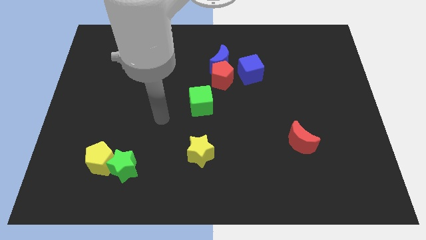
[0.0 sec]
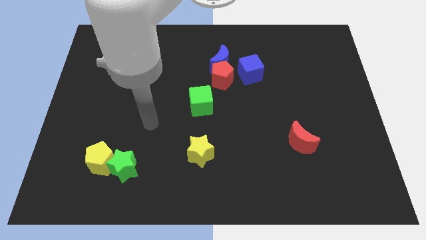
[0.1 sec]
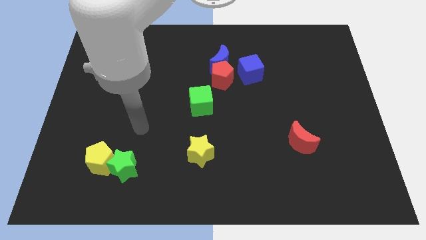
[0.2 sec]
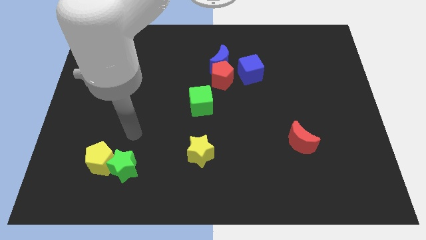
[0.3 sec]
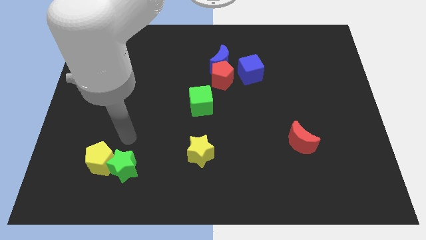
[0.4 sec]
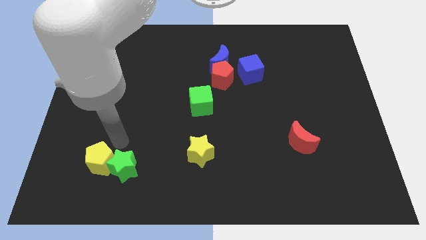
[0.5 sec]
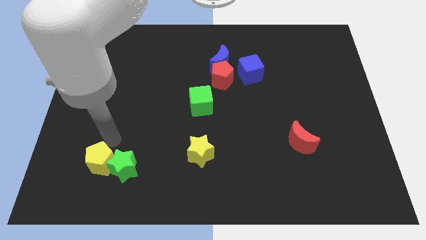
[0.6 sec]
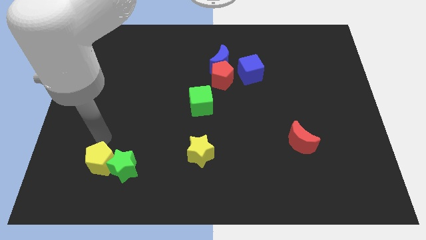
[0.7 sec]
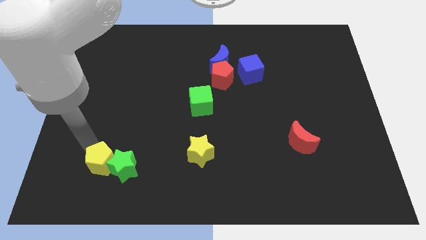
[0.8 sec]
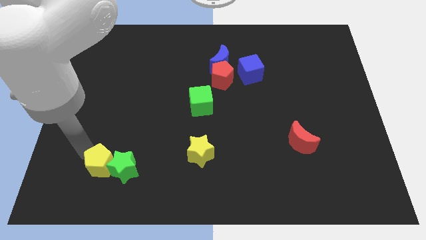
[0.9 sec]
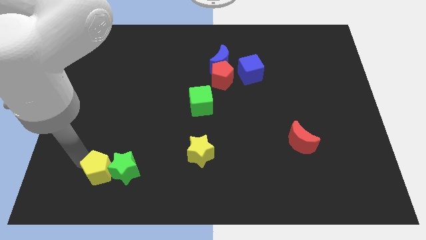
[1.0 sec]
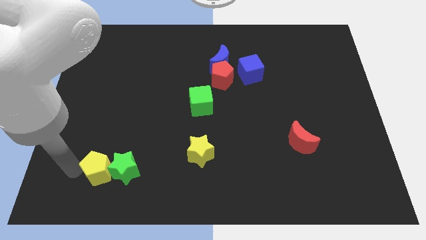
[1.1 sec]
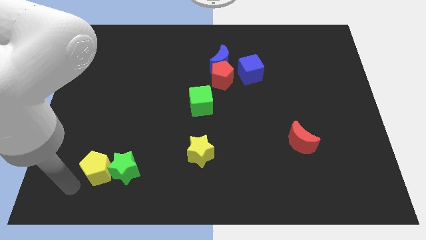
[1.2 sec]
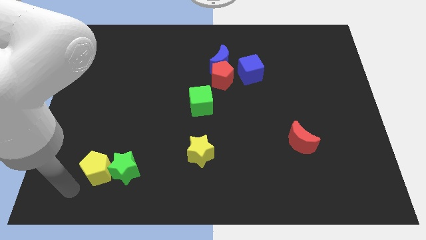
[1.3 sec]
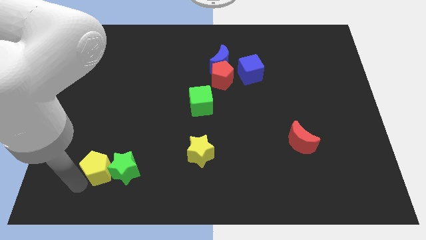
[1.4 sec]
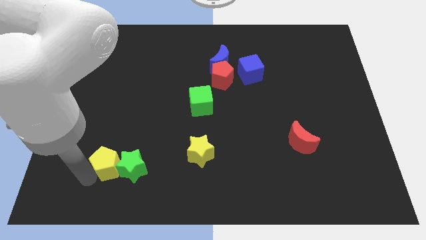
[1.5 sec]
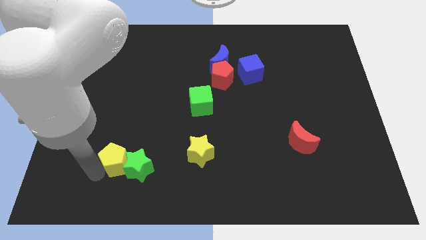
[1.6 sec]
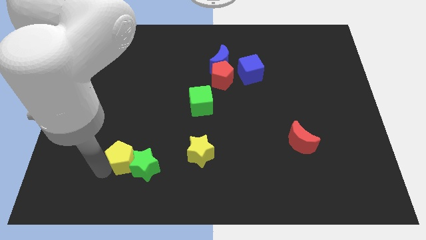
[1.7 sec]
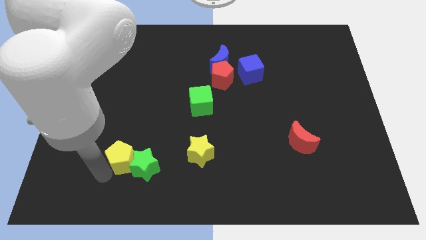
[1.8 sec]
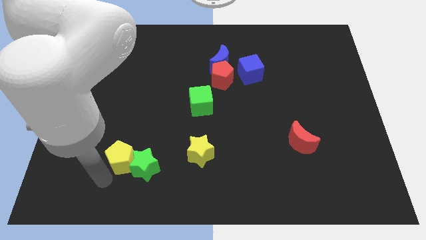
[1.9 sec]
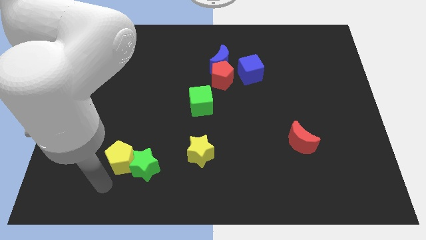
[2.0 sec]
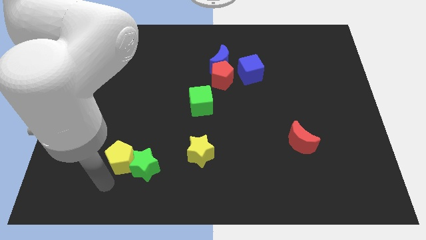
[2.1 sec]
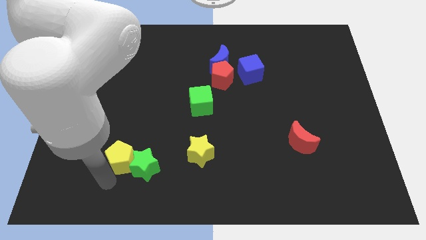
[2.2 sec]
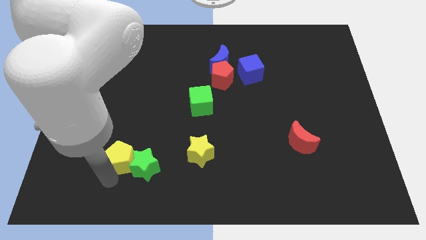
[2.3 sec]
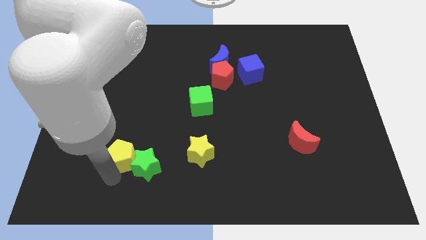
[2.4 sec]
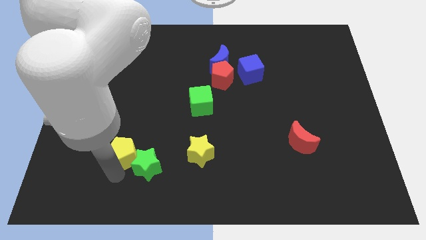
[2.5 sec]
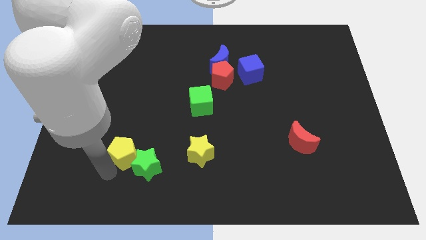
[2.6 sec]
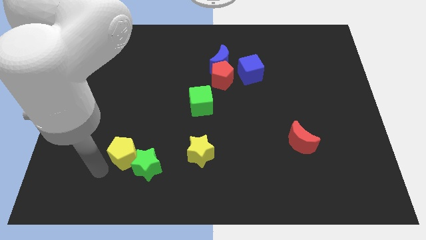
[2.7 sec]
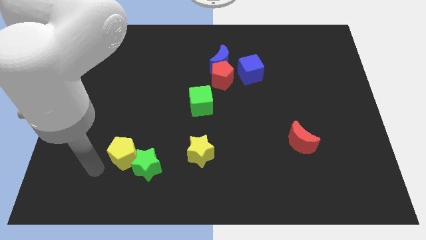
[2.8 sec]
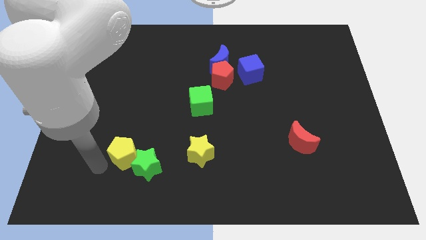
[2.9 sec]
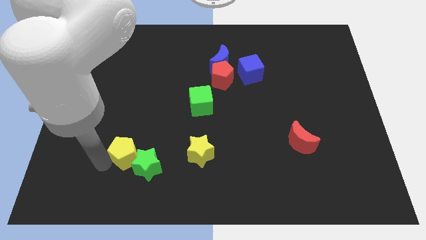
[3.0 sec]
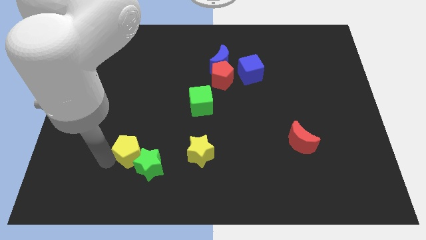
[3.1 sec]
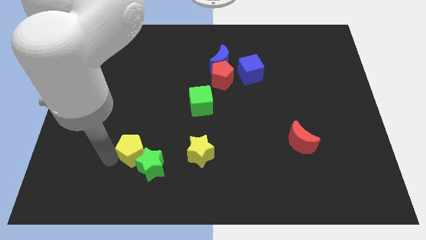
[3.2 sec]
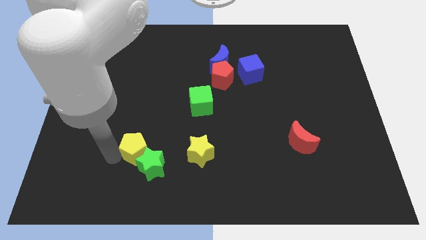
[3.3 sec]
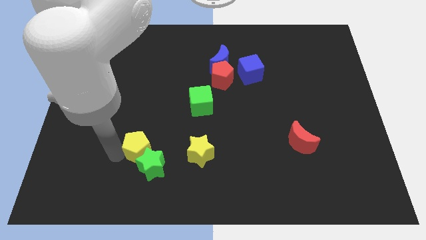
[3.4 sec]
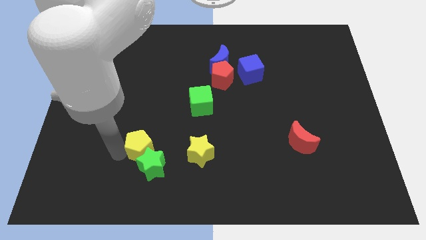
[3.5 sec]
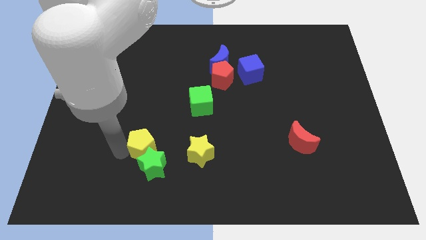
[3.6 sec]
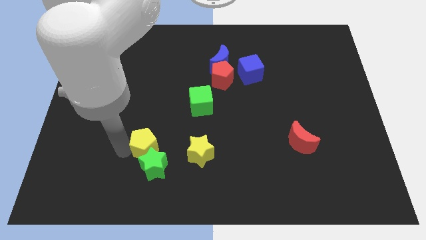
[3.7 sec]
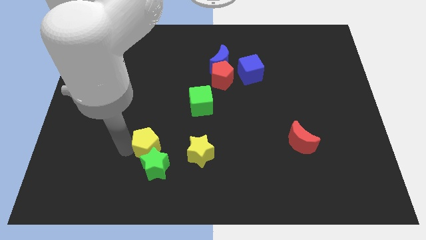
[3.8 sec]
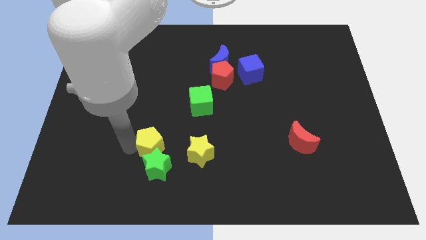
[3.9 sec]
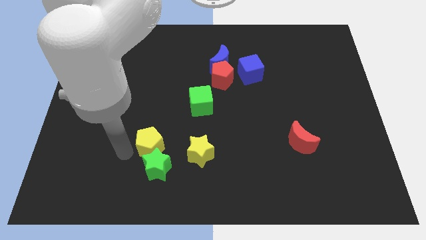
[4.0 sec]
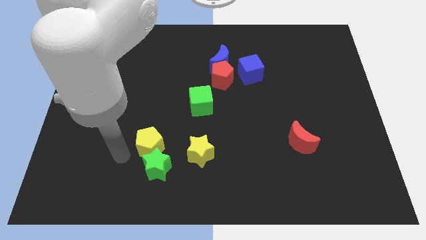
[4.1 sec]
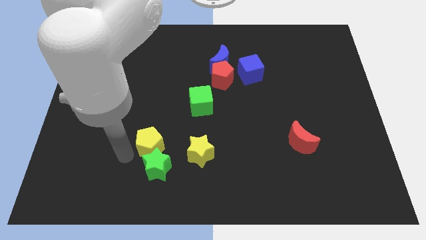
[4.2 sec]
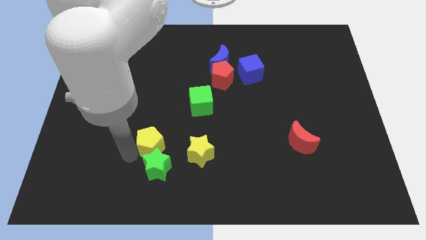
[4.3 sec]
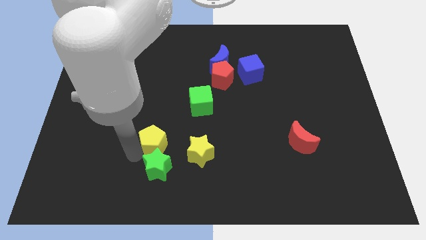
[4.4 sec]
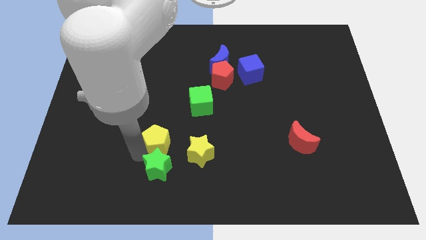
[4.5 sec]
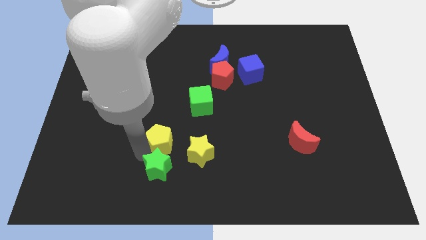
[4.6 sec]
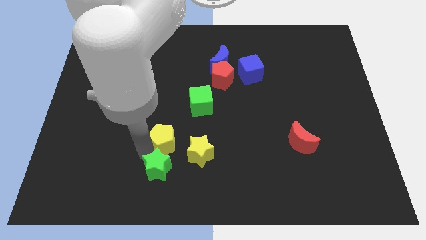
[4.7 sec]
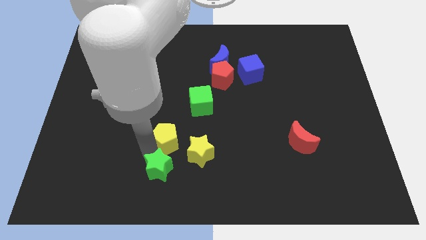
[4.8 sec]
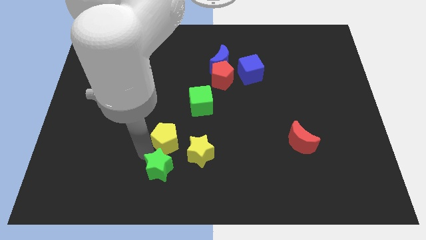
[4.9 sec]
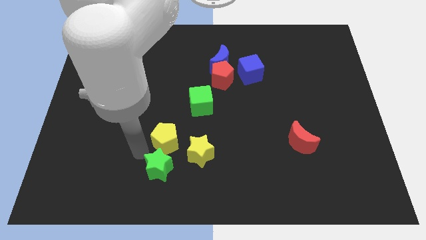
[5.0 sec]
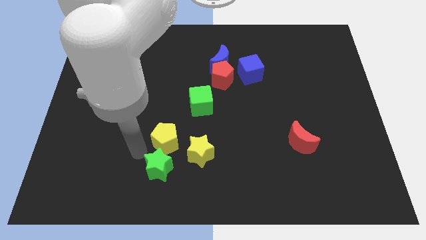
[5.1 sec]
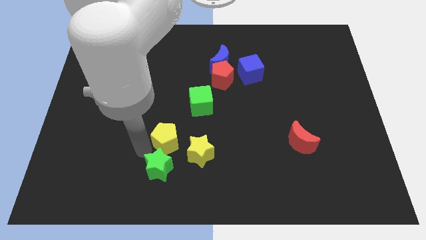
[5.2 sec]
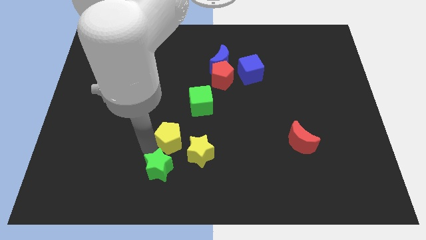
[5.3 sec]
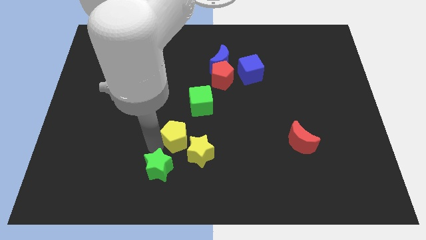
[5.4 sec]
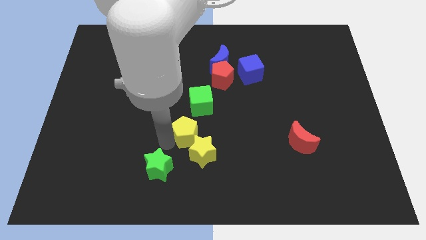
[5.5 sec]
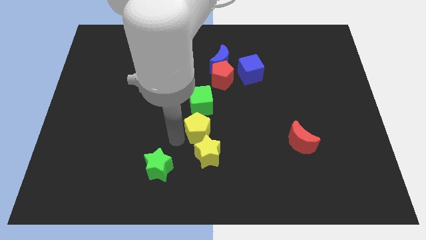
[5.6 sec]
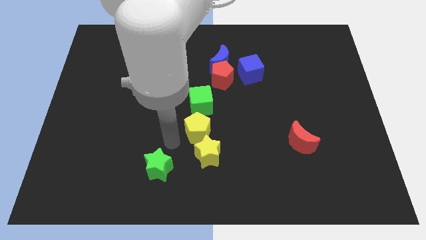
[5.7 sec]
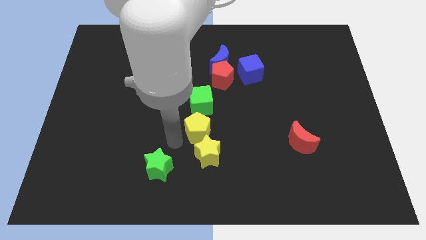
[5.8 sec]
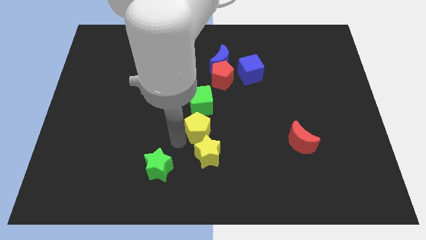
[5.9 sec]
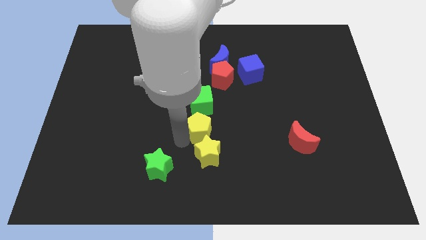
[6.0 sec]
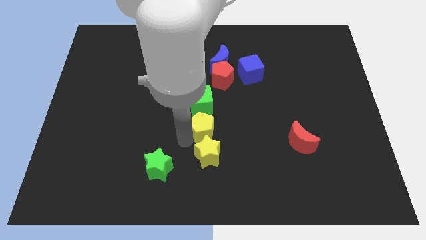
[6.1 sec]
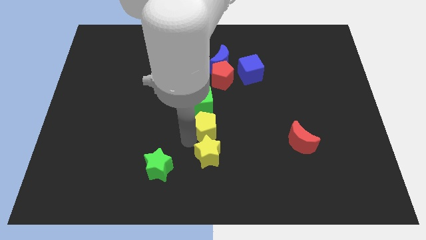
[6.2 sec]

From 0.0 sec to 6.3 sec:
put the yellow pentagon diagonally down and to the right of the green cube

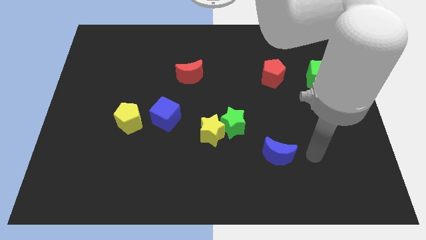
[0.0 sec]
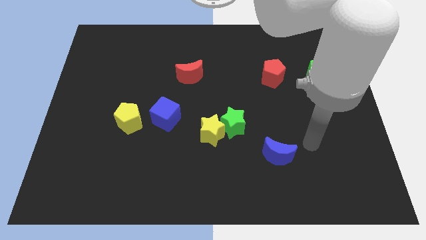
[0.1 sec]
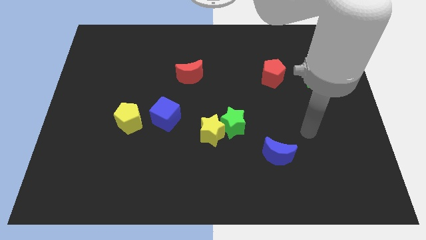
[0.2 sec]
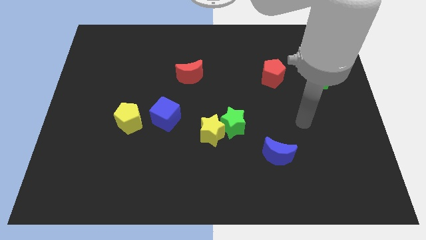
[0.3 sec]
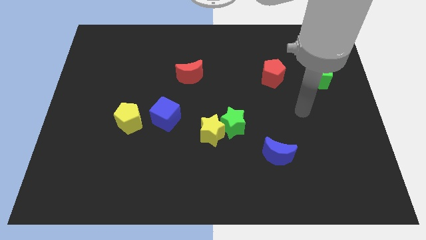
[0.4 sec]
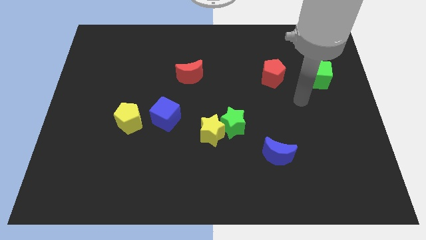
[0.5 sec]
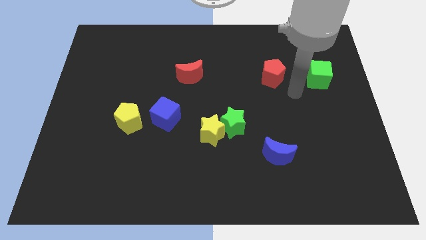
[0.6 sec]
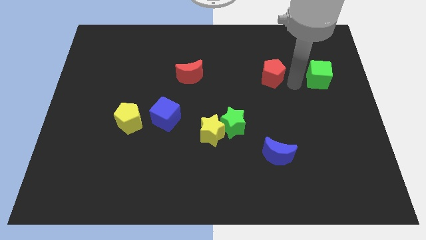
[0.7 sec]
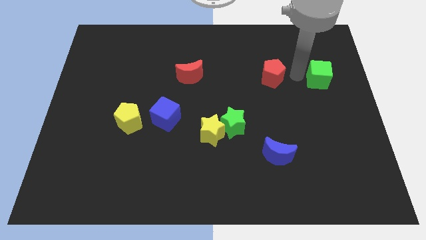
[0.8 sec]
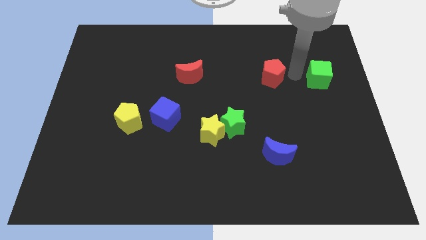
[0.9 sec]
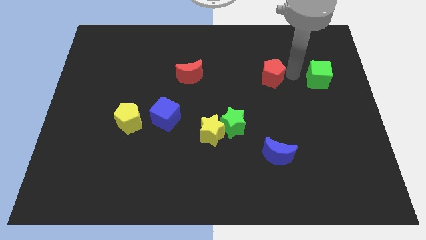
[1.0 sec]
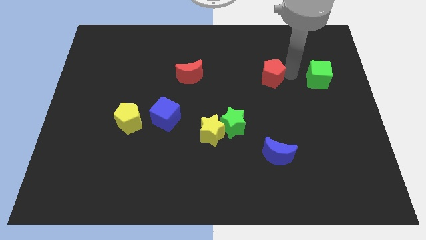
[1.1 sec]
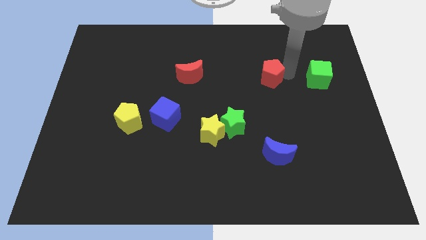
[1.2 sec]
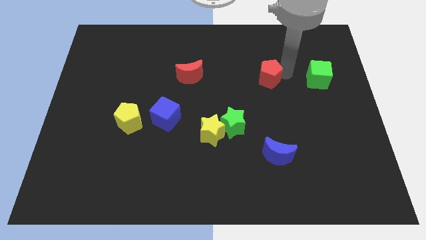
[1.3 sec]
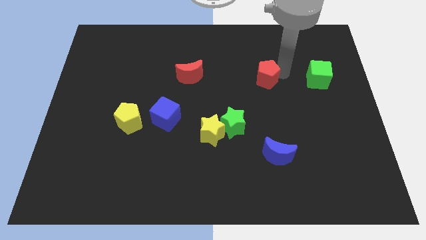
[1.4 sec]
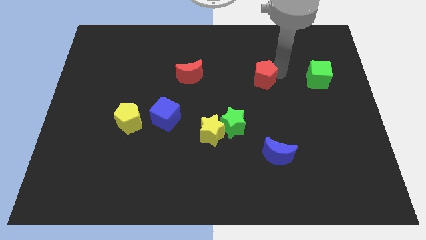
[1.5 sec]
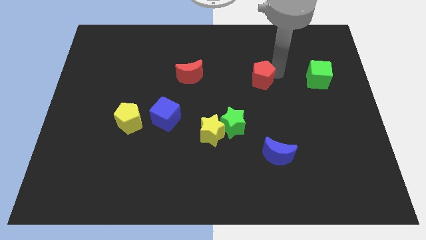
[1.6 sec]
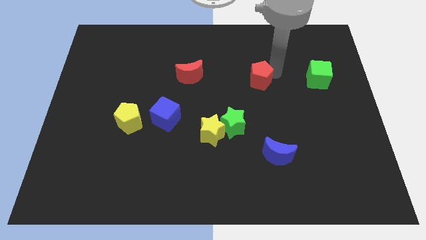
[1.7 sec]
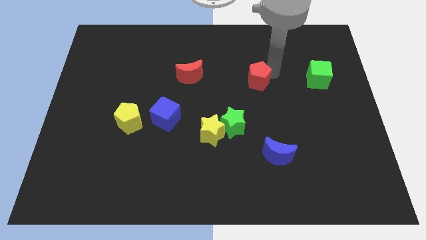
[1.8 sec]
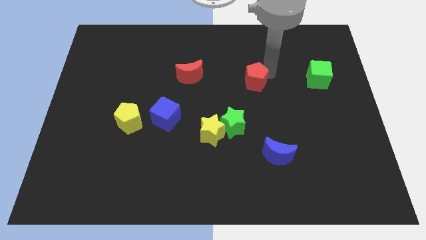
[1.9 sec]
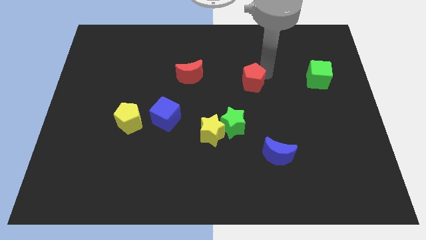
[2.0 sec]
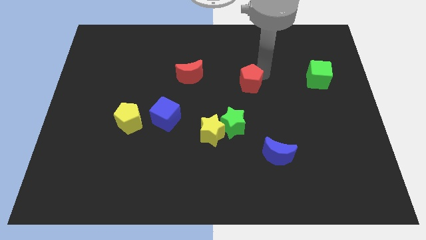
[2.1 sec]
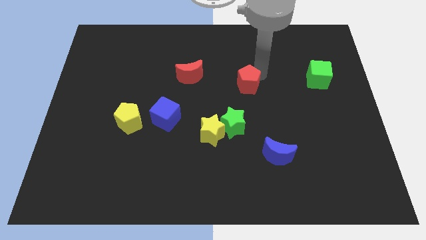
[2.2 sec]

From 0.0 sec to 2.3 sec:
move the red pentagon to the top side of the green star
